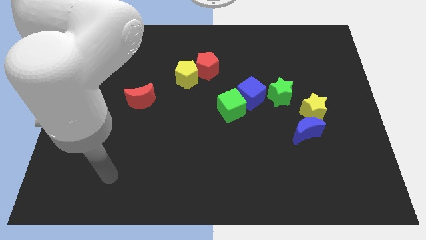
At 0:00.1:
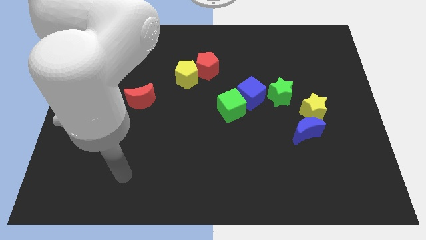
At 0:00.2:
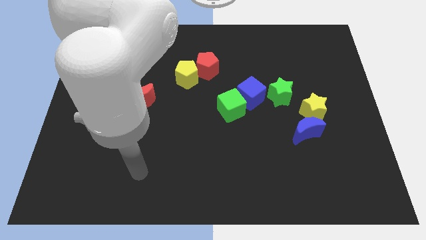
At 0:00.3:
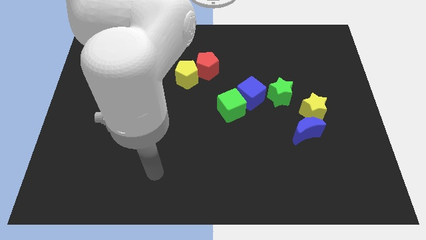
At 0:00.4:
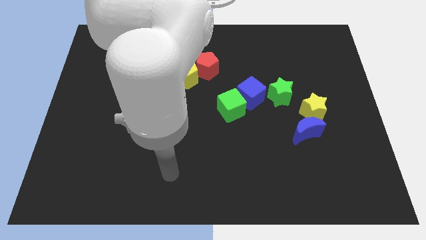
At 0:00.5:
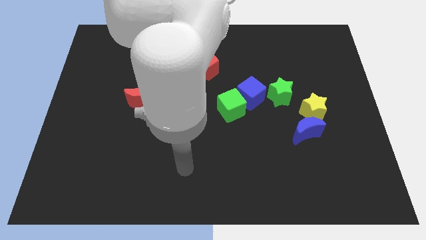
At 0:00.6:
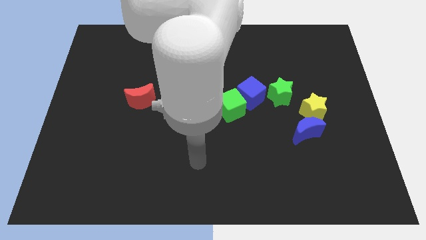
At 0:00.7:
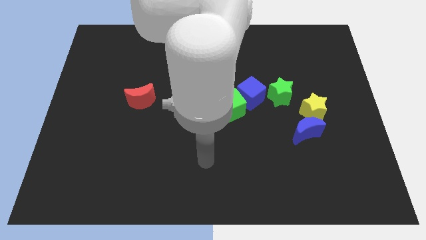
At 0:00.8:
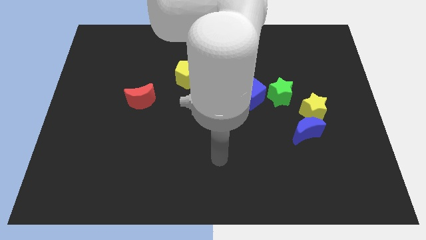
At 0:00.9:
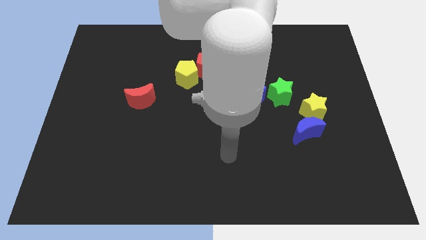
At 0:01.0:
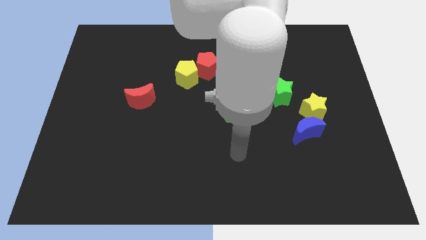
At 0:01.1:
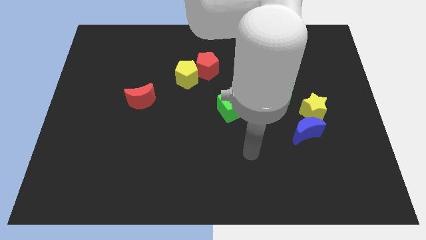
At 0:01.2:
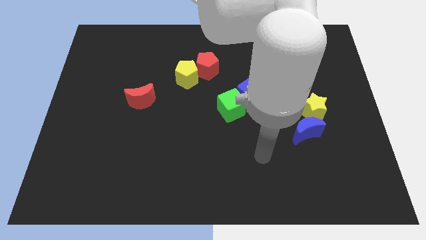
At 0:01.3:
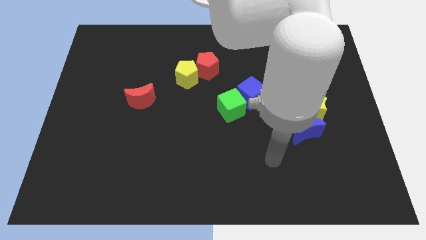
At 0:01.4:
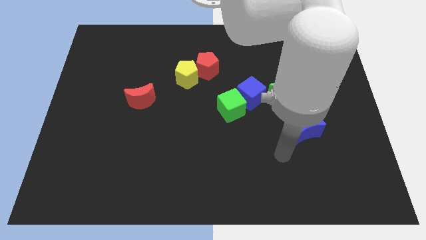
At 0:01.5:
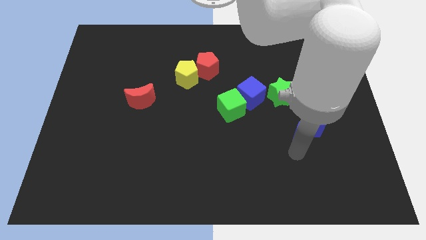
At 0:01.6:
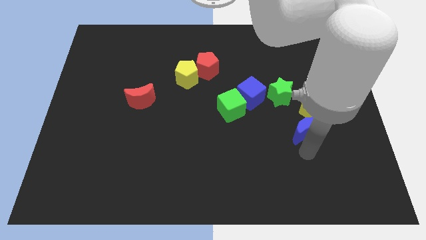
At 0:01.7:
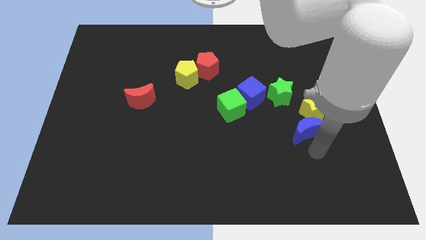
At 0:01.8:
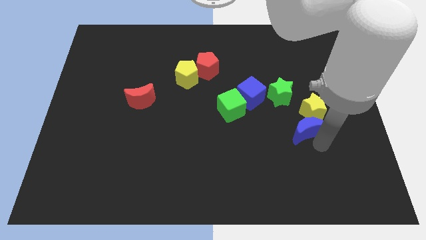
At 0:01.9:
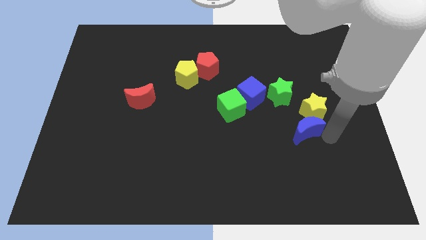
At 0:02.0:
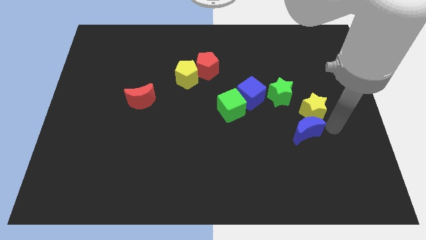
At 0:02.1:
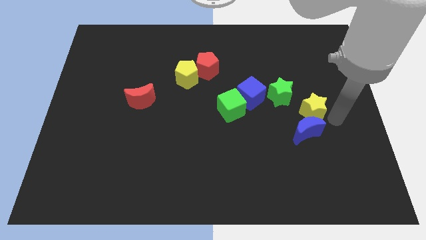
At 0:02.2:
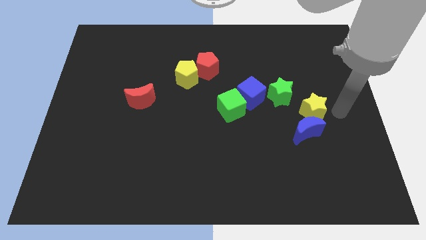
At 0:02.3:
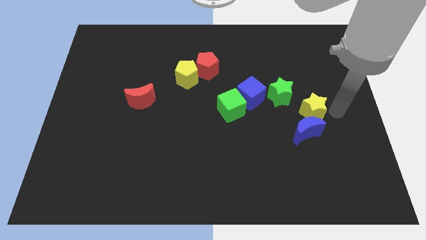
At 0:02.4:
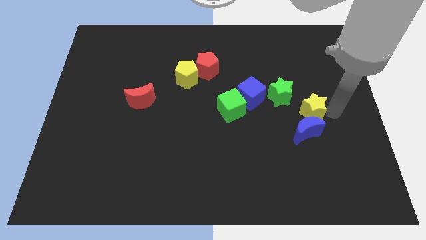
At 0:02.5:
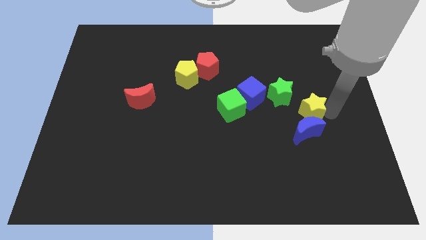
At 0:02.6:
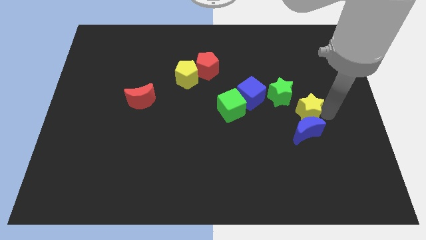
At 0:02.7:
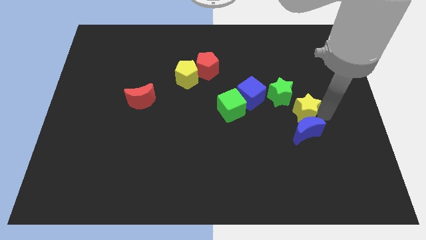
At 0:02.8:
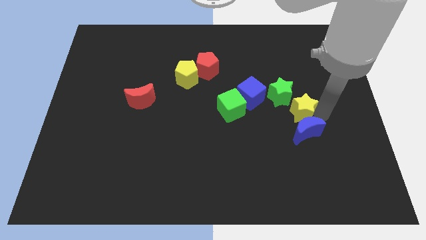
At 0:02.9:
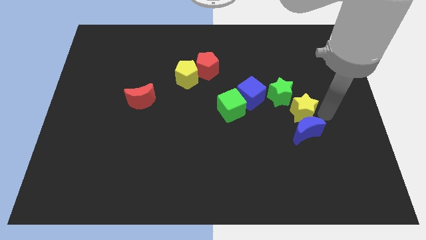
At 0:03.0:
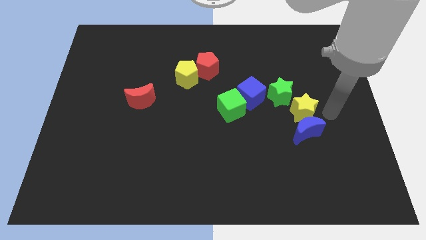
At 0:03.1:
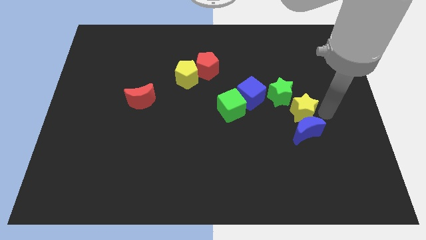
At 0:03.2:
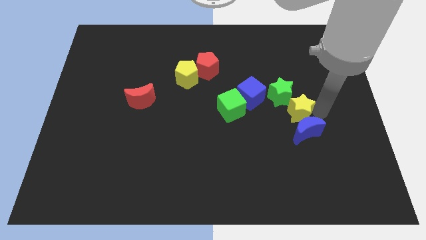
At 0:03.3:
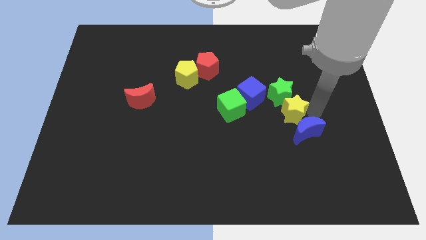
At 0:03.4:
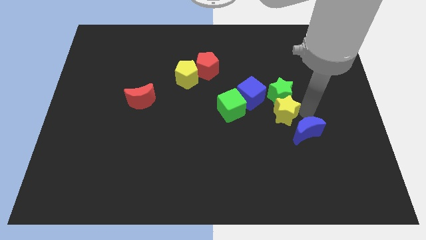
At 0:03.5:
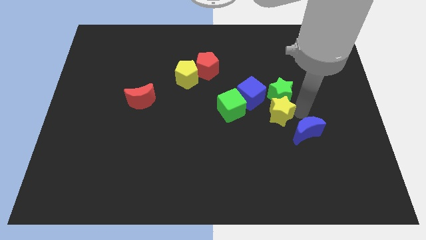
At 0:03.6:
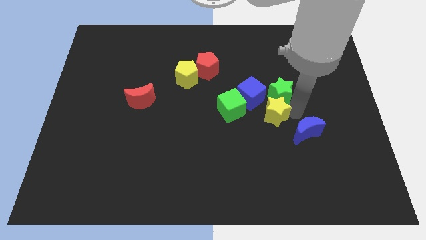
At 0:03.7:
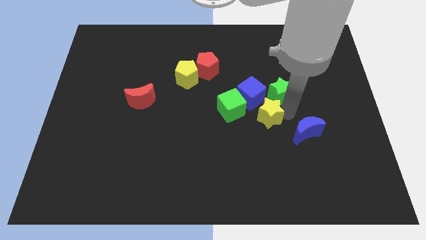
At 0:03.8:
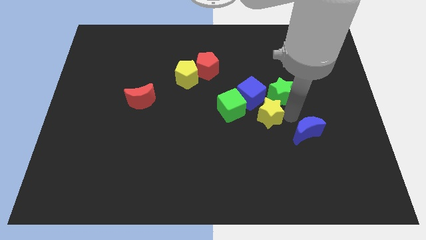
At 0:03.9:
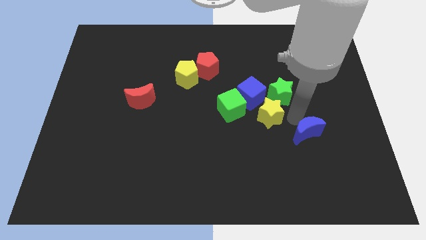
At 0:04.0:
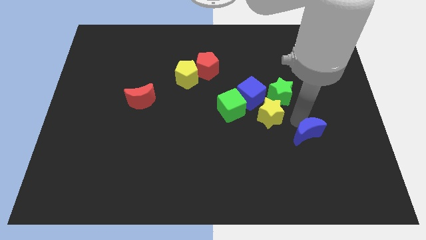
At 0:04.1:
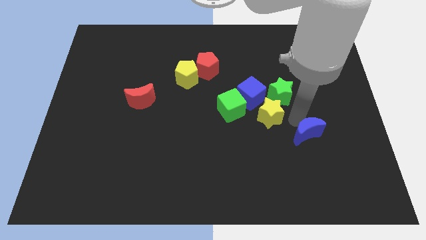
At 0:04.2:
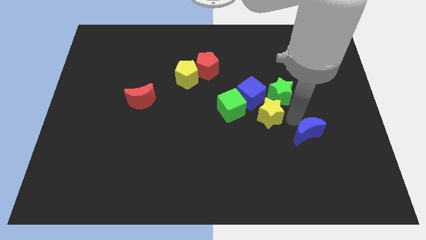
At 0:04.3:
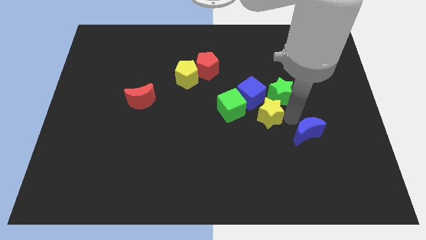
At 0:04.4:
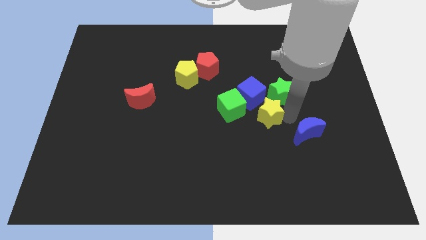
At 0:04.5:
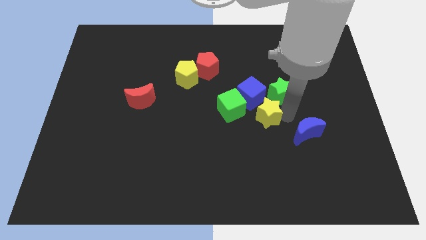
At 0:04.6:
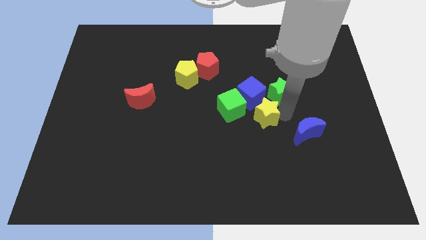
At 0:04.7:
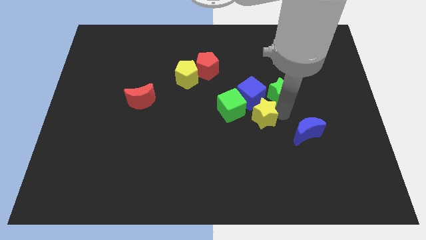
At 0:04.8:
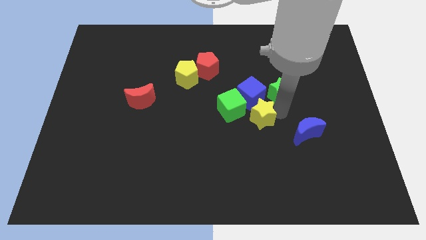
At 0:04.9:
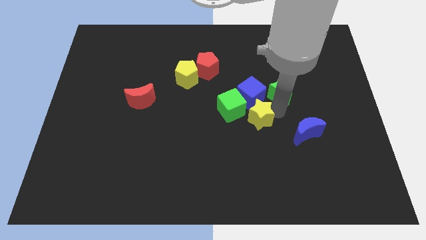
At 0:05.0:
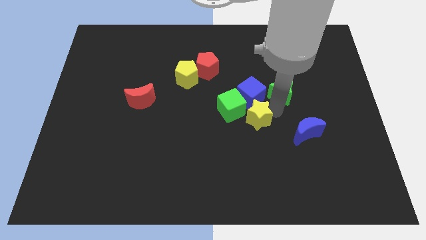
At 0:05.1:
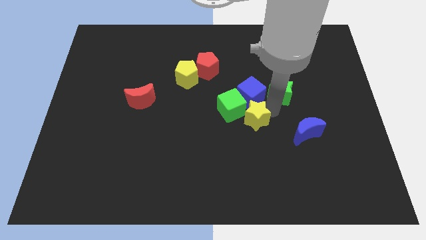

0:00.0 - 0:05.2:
slide the yellow star next to the green cube

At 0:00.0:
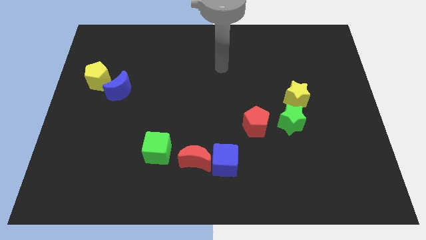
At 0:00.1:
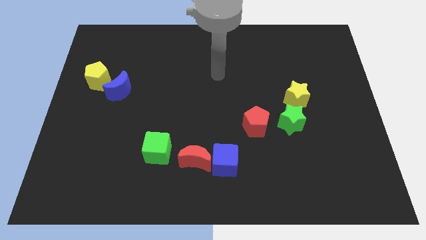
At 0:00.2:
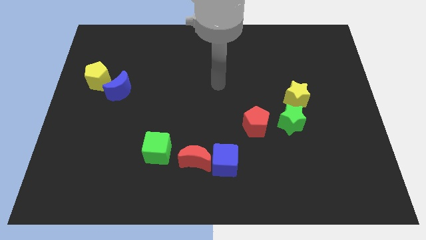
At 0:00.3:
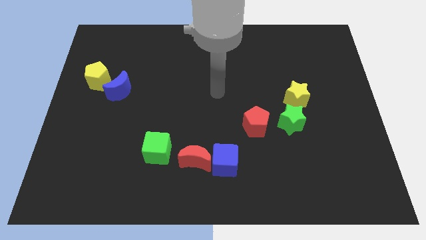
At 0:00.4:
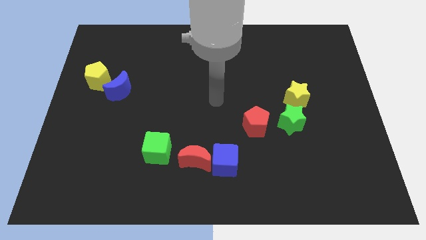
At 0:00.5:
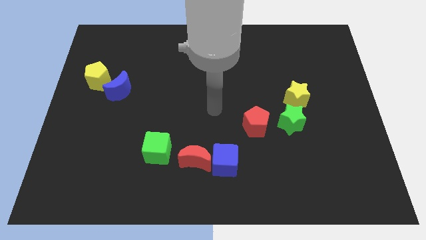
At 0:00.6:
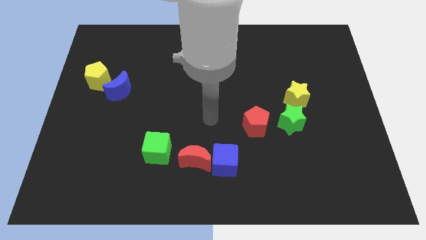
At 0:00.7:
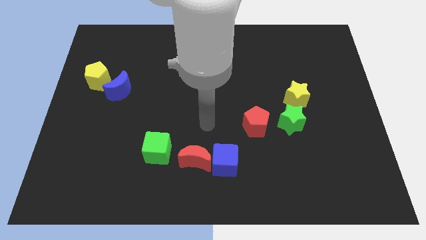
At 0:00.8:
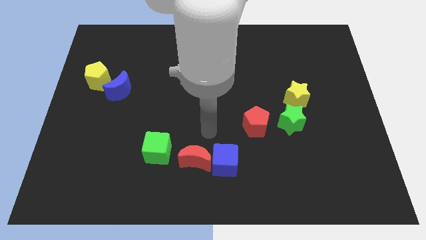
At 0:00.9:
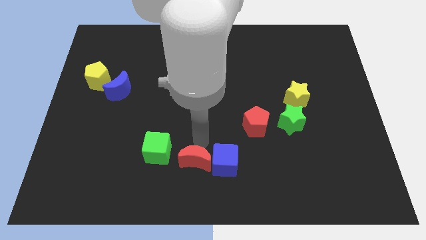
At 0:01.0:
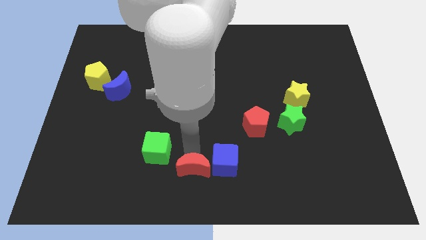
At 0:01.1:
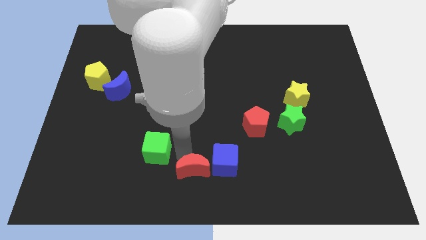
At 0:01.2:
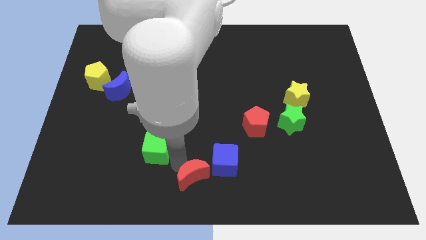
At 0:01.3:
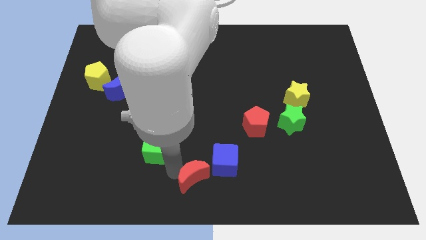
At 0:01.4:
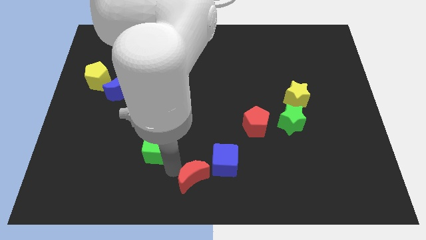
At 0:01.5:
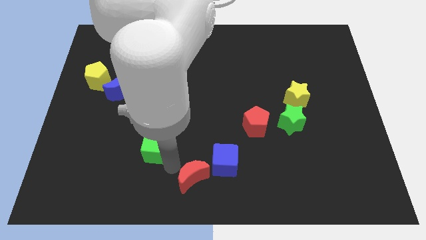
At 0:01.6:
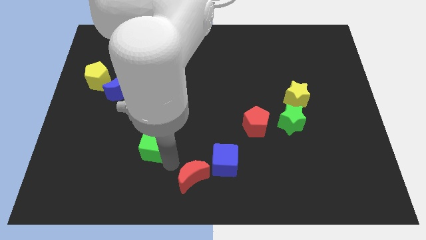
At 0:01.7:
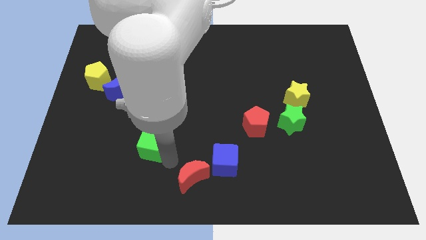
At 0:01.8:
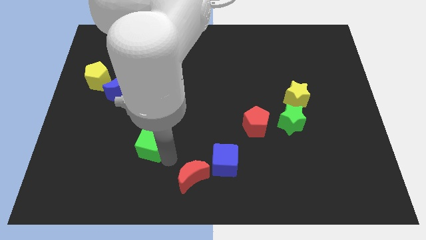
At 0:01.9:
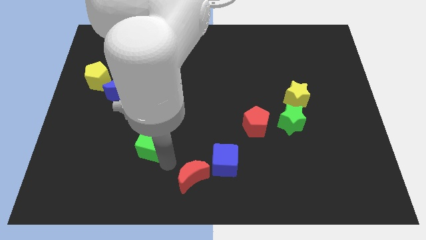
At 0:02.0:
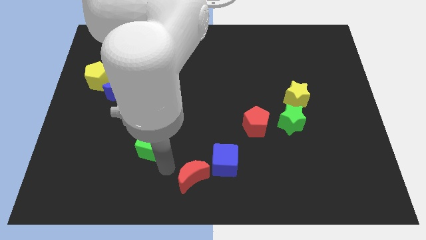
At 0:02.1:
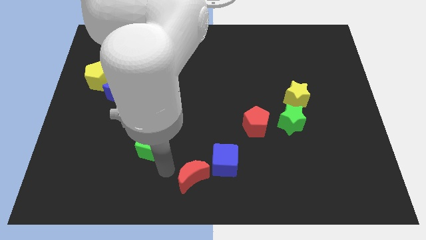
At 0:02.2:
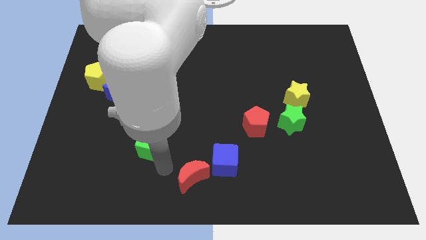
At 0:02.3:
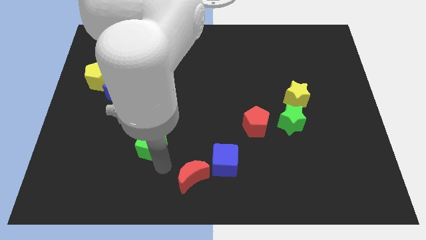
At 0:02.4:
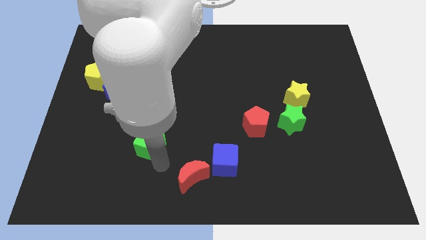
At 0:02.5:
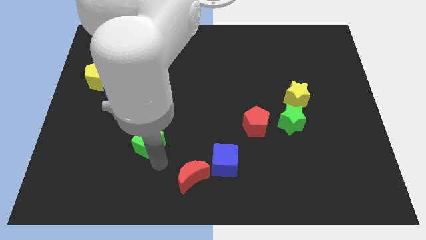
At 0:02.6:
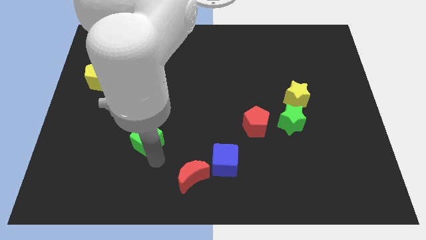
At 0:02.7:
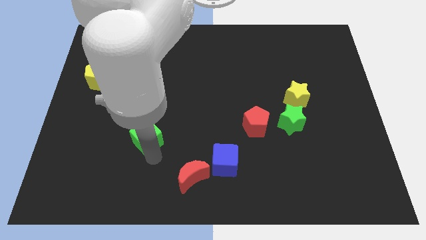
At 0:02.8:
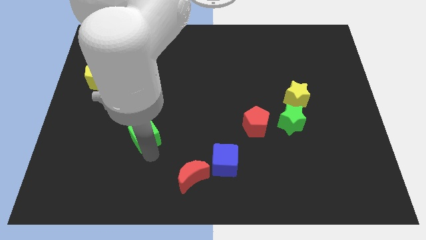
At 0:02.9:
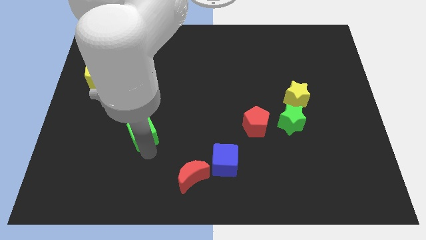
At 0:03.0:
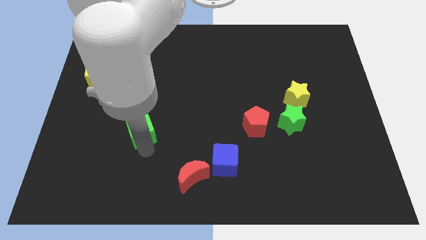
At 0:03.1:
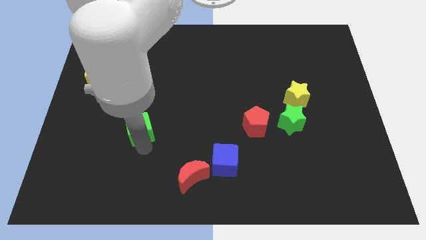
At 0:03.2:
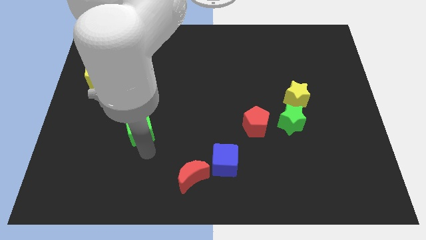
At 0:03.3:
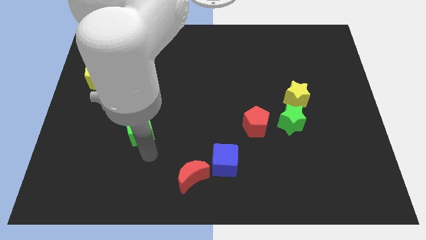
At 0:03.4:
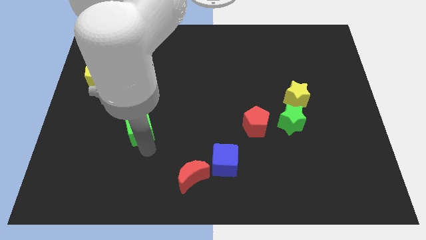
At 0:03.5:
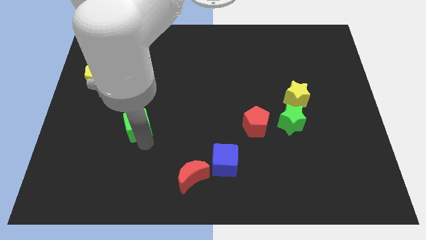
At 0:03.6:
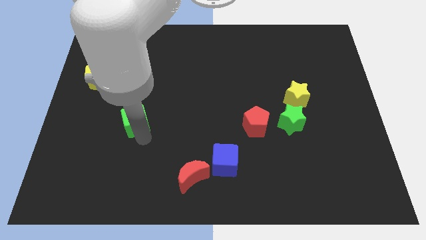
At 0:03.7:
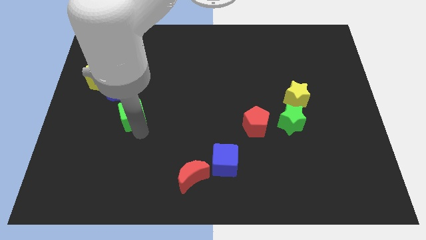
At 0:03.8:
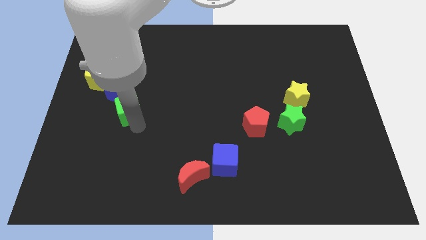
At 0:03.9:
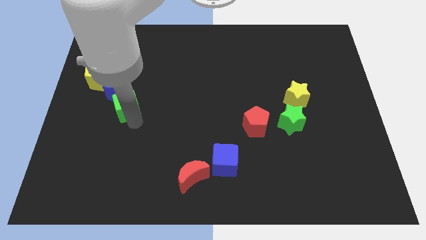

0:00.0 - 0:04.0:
push the green cube to the blue moon
